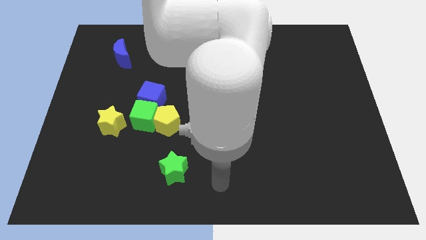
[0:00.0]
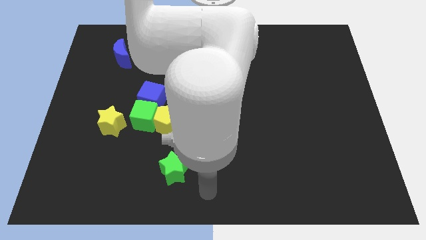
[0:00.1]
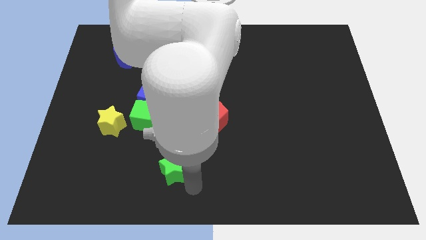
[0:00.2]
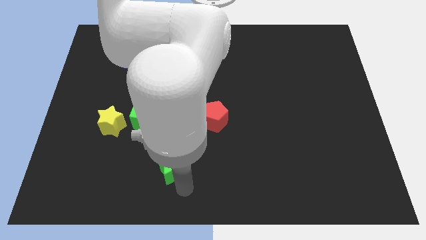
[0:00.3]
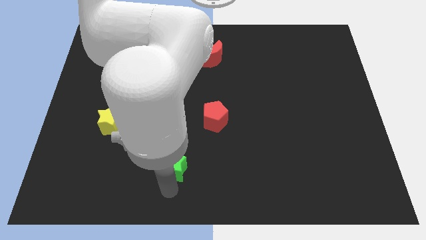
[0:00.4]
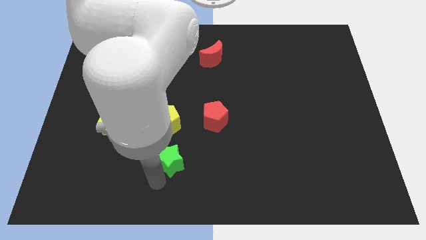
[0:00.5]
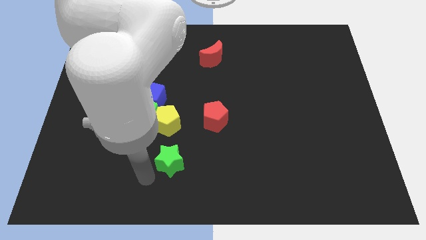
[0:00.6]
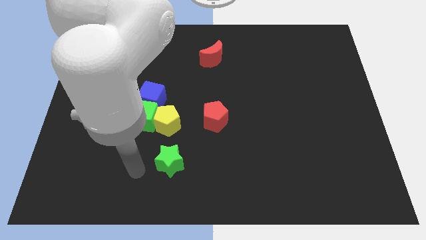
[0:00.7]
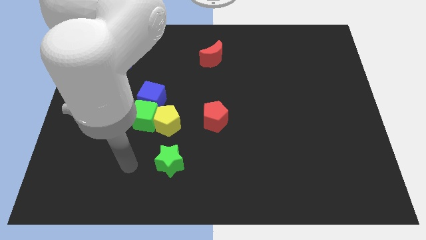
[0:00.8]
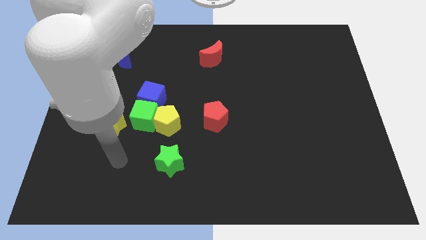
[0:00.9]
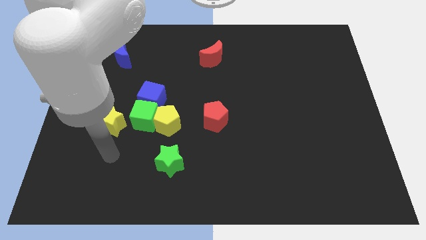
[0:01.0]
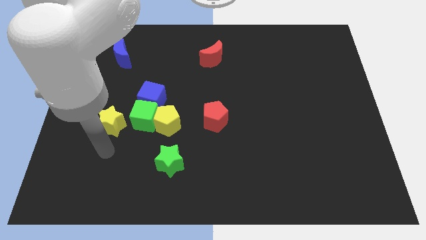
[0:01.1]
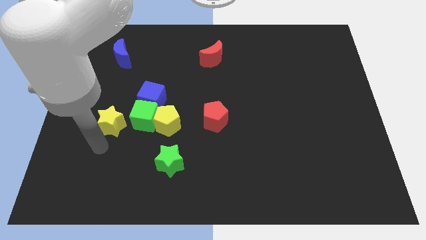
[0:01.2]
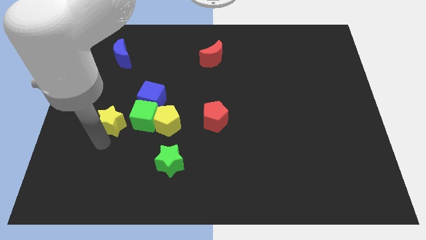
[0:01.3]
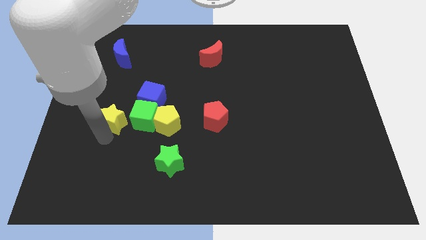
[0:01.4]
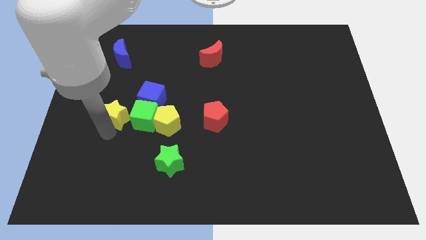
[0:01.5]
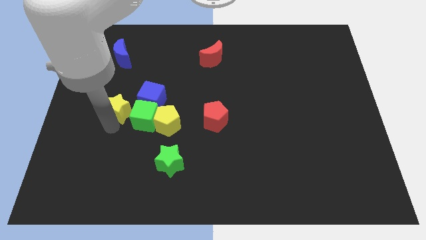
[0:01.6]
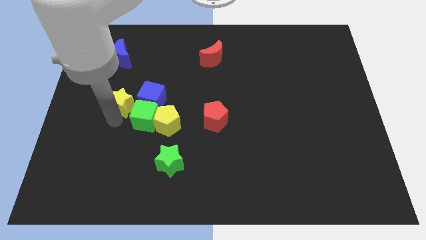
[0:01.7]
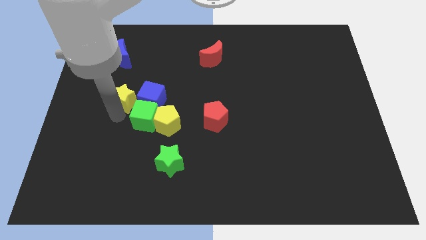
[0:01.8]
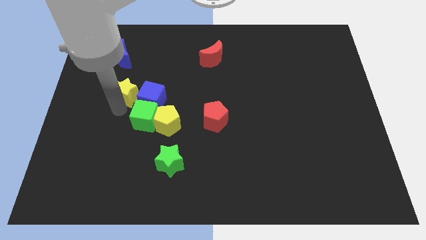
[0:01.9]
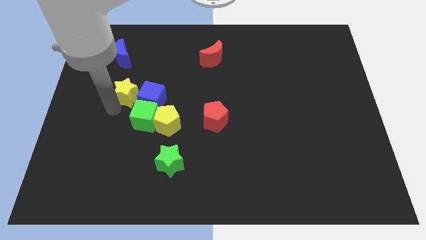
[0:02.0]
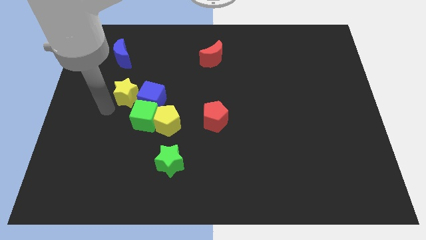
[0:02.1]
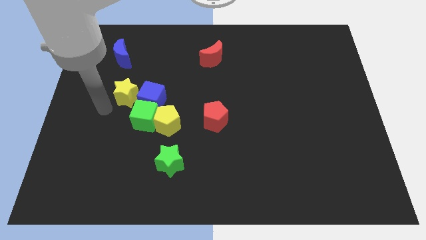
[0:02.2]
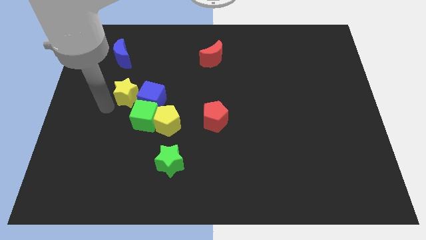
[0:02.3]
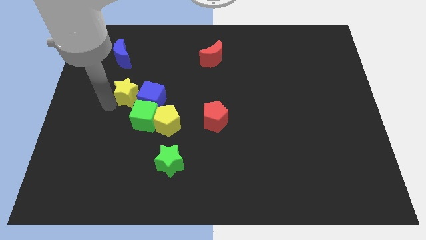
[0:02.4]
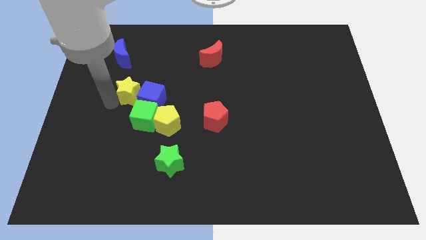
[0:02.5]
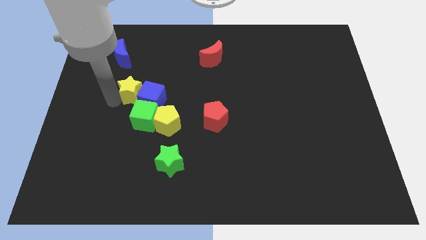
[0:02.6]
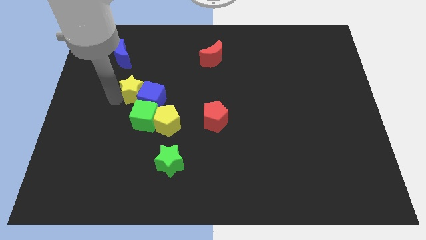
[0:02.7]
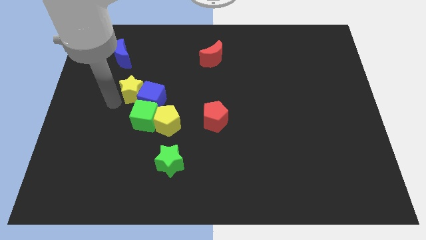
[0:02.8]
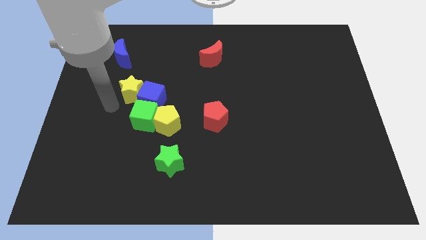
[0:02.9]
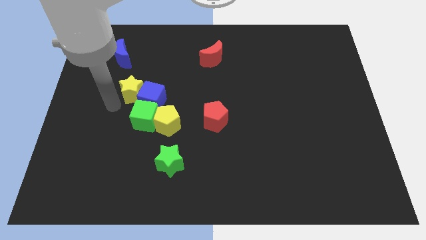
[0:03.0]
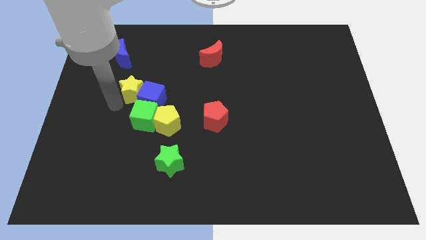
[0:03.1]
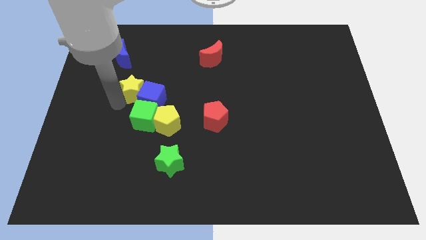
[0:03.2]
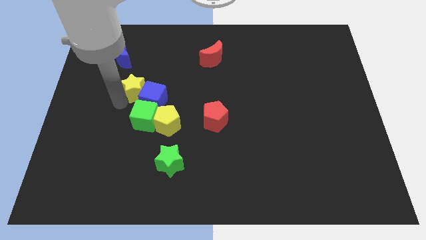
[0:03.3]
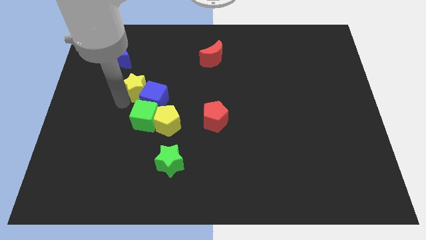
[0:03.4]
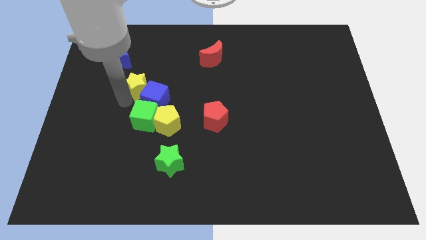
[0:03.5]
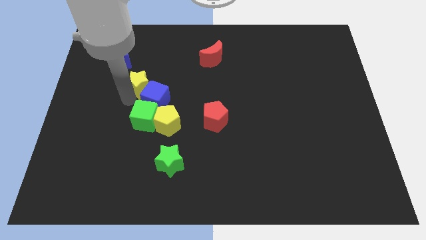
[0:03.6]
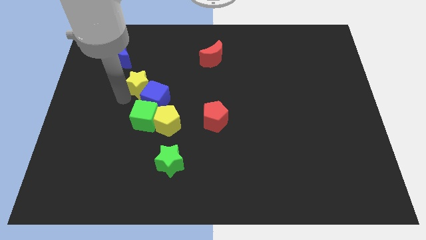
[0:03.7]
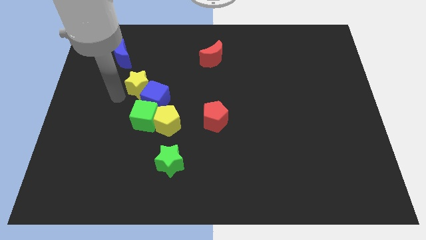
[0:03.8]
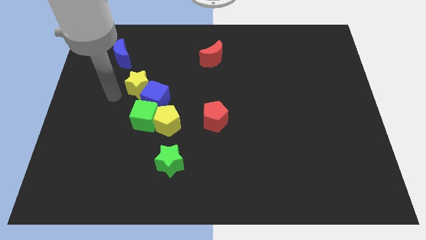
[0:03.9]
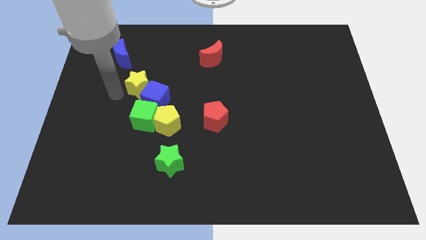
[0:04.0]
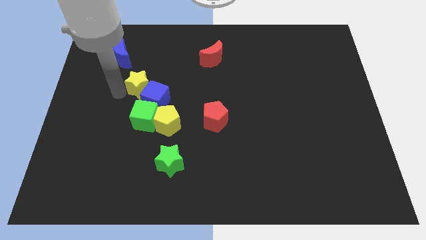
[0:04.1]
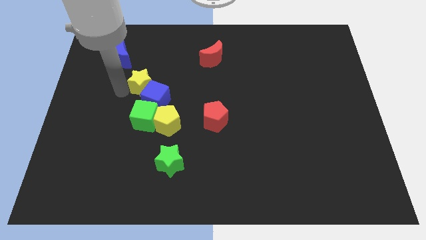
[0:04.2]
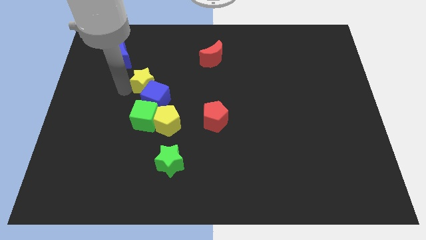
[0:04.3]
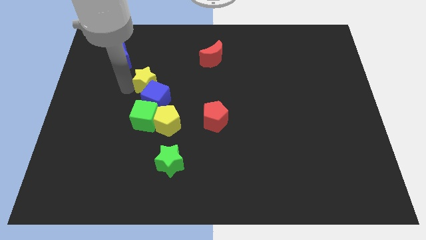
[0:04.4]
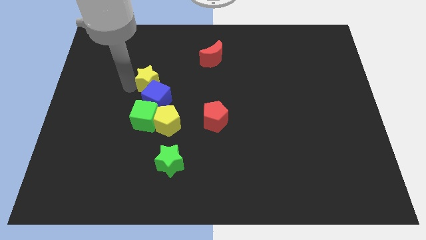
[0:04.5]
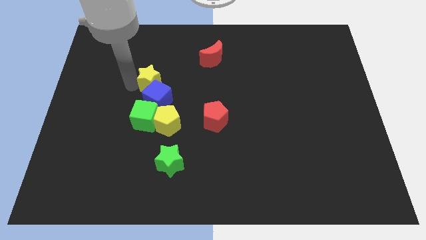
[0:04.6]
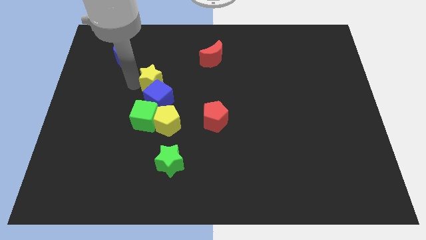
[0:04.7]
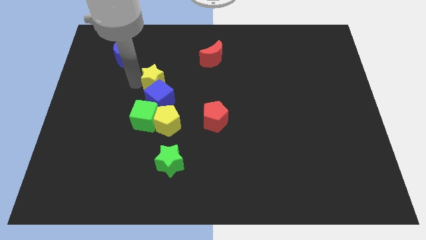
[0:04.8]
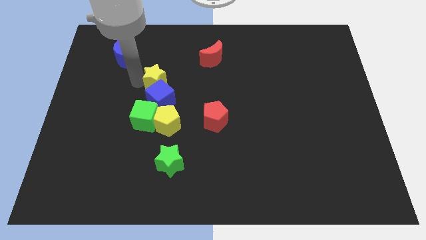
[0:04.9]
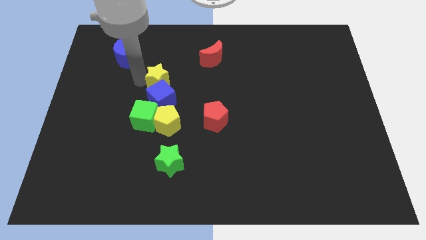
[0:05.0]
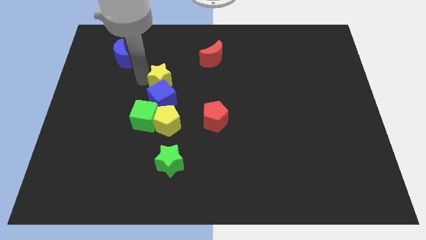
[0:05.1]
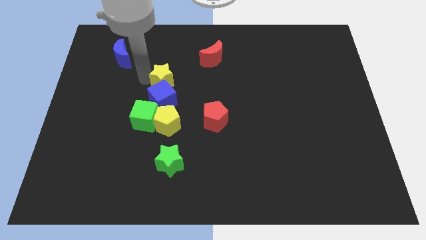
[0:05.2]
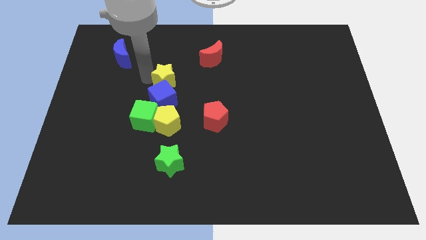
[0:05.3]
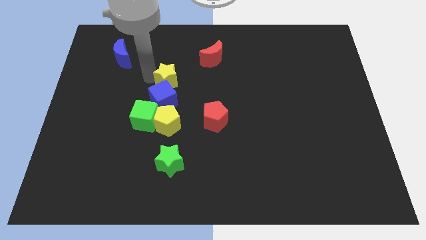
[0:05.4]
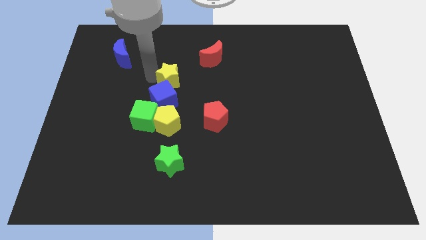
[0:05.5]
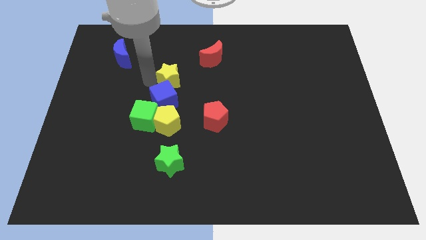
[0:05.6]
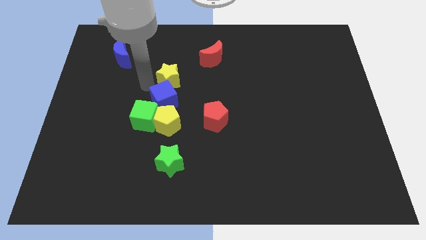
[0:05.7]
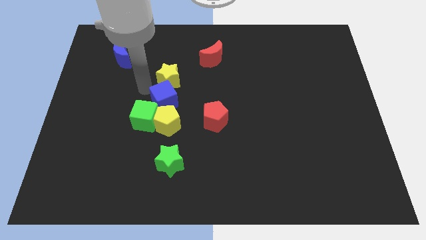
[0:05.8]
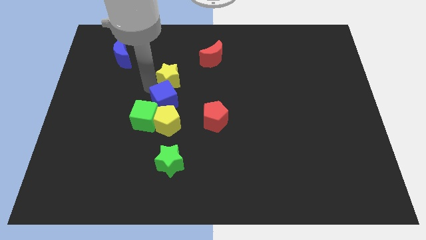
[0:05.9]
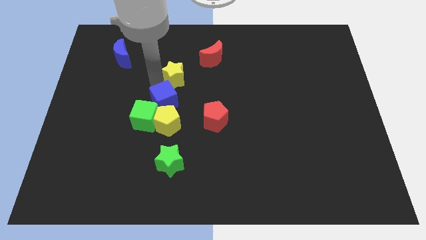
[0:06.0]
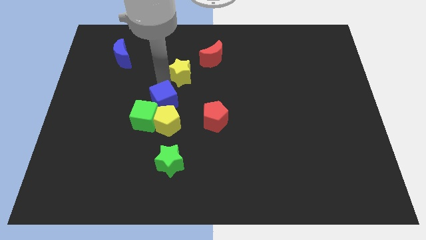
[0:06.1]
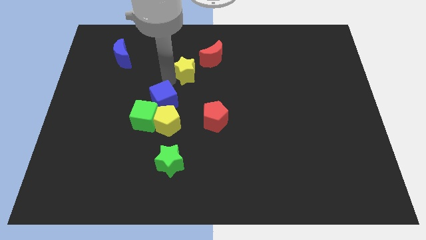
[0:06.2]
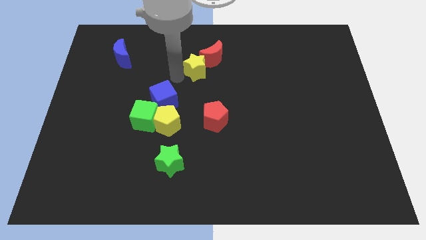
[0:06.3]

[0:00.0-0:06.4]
move the yellow star to the red moon

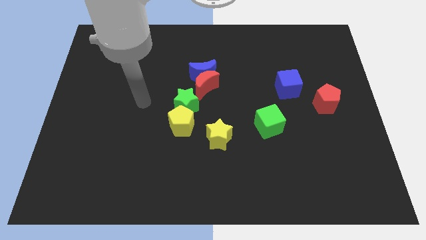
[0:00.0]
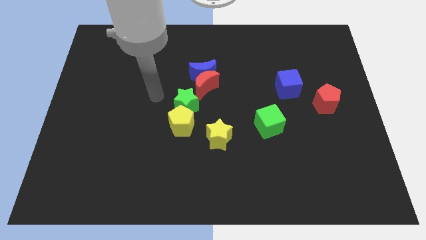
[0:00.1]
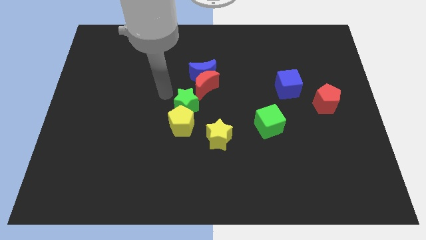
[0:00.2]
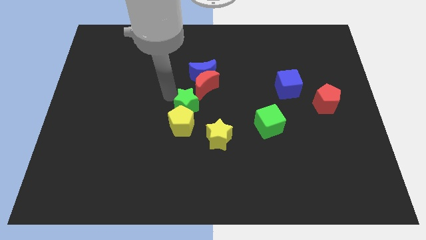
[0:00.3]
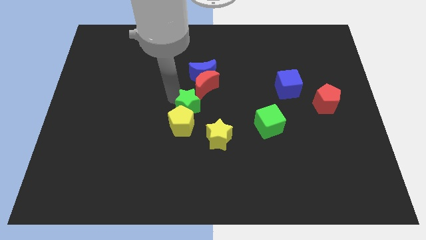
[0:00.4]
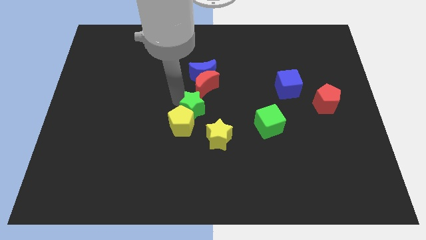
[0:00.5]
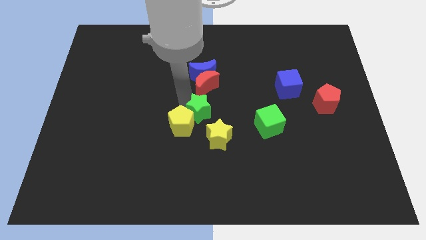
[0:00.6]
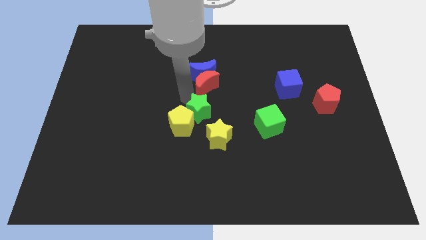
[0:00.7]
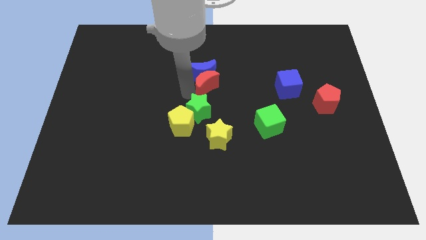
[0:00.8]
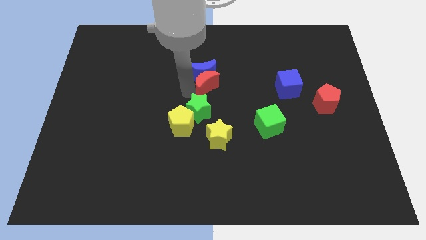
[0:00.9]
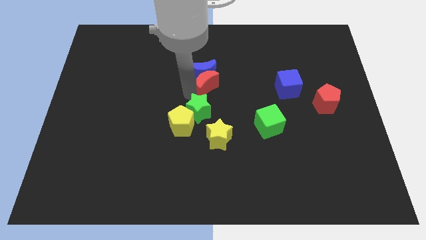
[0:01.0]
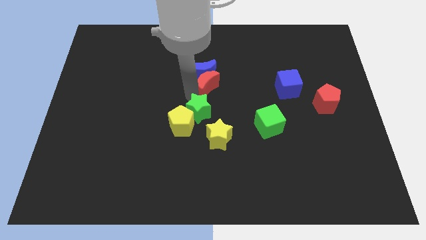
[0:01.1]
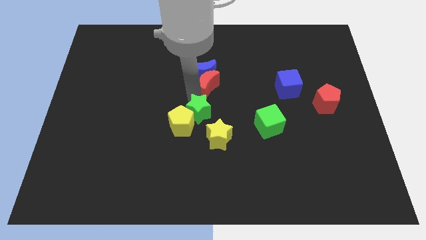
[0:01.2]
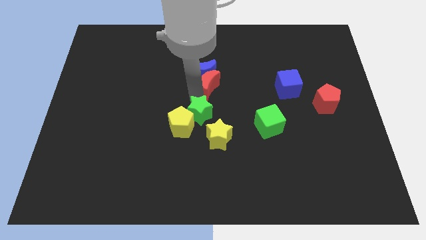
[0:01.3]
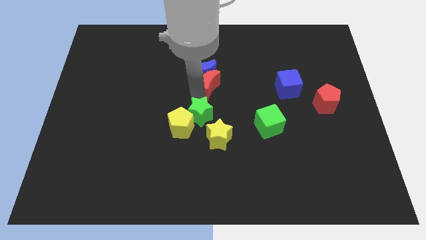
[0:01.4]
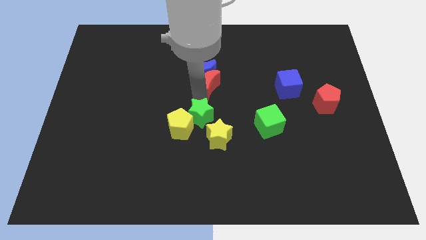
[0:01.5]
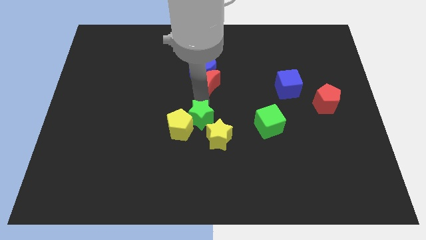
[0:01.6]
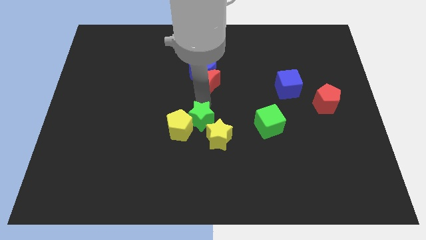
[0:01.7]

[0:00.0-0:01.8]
push the green star close to the yellow star
